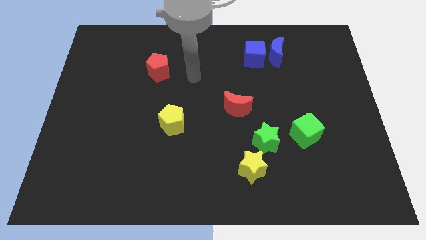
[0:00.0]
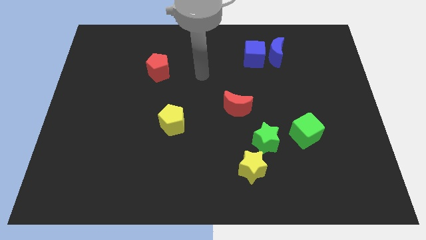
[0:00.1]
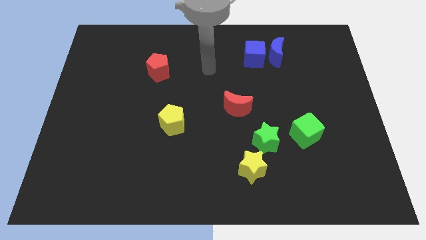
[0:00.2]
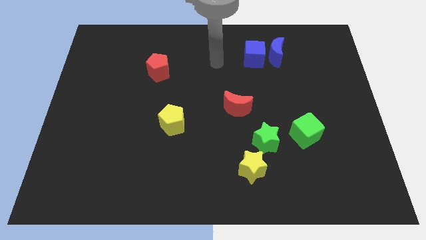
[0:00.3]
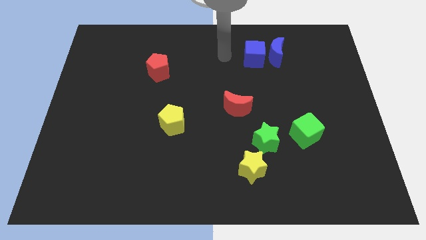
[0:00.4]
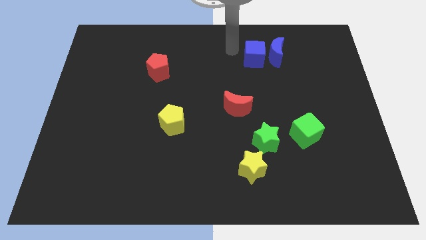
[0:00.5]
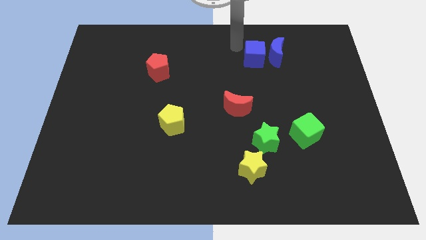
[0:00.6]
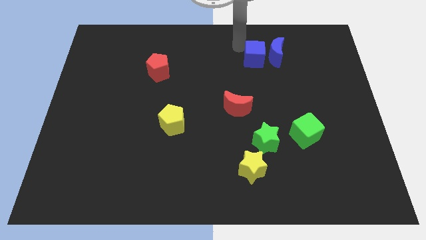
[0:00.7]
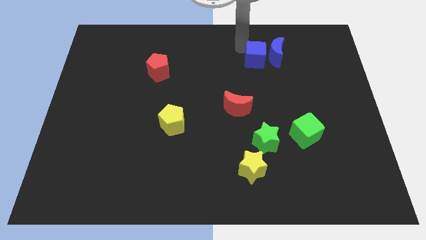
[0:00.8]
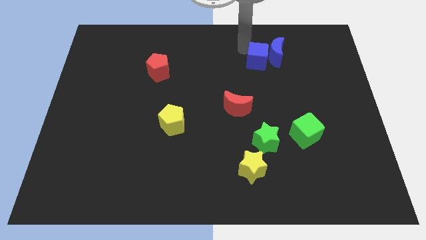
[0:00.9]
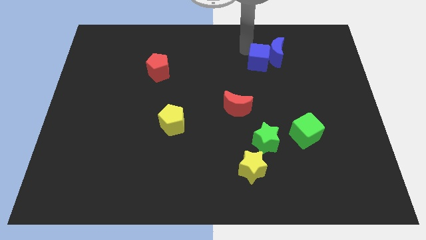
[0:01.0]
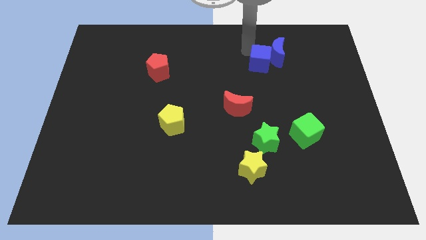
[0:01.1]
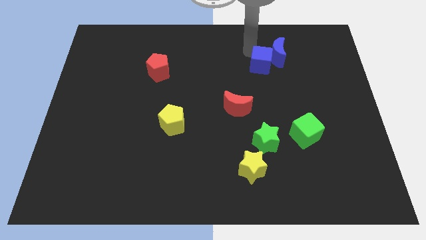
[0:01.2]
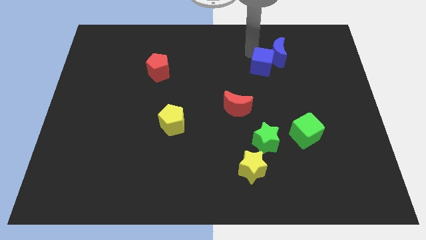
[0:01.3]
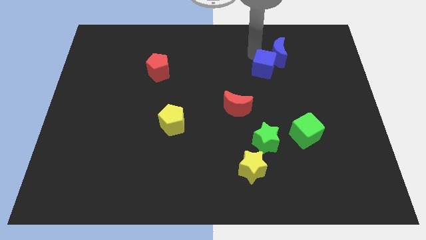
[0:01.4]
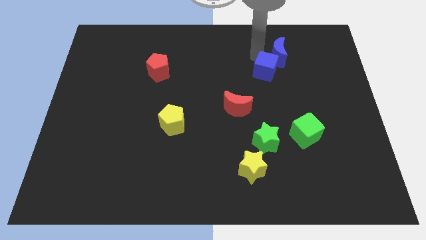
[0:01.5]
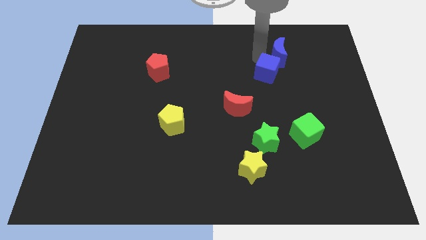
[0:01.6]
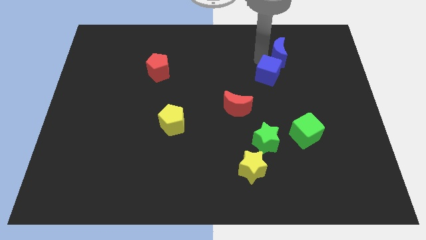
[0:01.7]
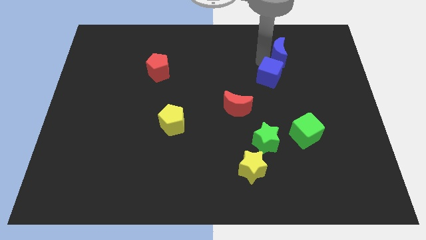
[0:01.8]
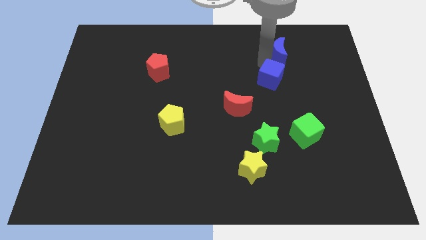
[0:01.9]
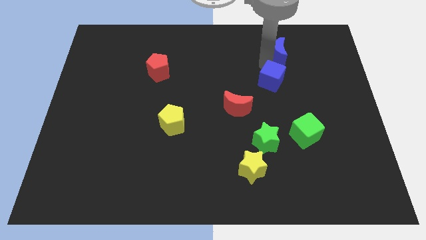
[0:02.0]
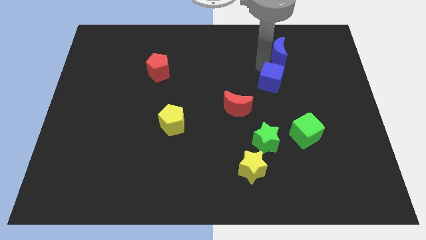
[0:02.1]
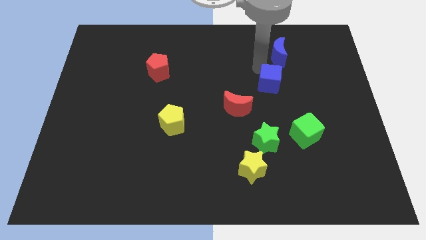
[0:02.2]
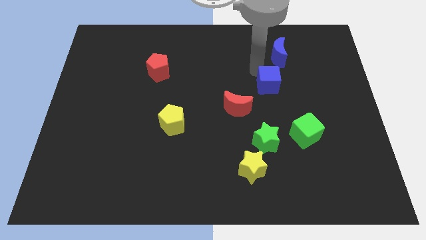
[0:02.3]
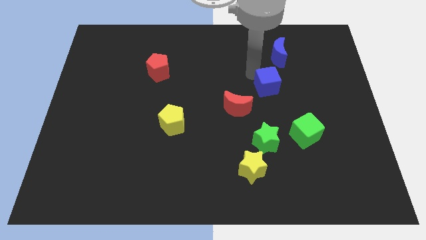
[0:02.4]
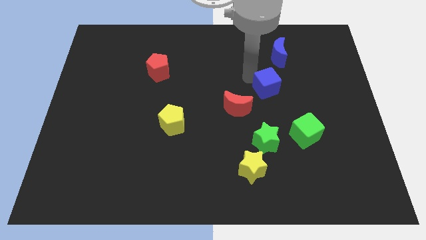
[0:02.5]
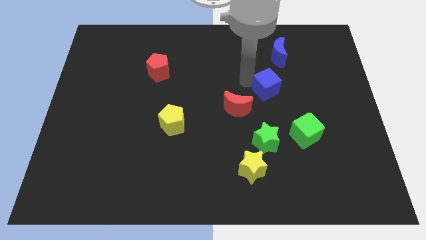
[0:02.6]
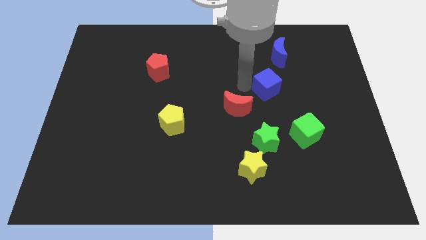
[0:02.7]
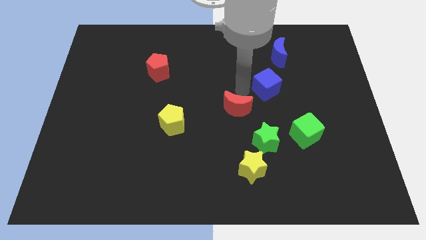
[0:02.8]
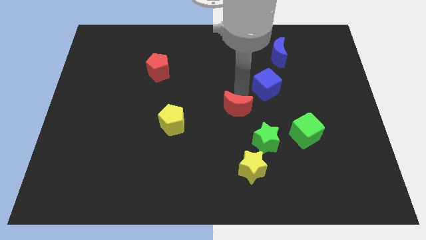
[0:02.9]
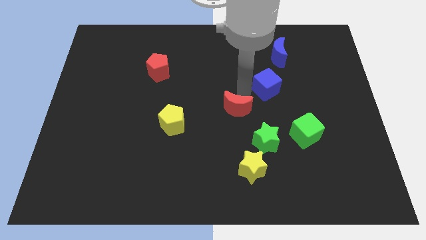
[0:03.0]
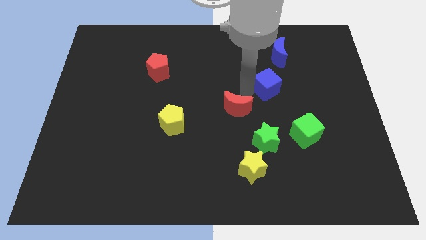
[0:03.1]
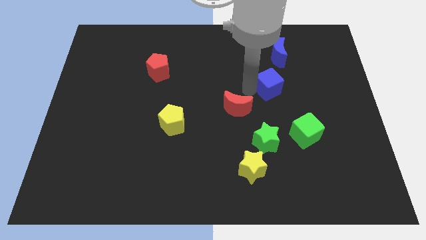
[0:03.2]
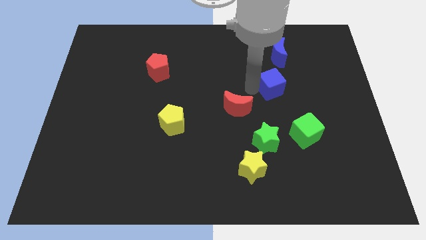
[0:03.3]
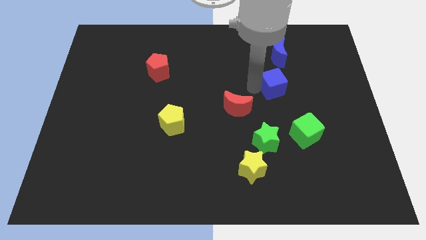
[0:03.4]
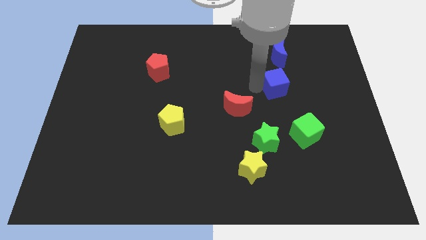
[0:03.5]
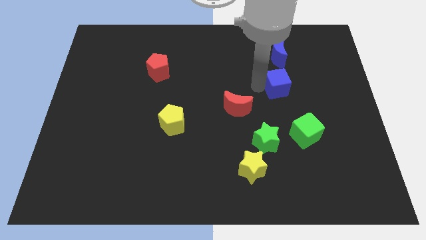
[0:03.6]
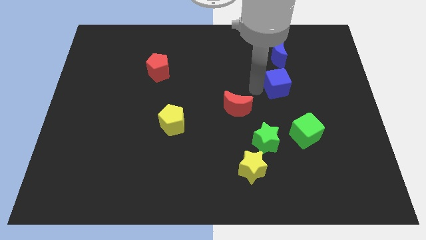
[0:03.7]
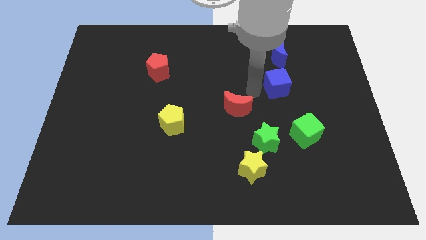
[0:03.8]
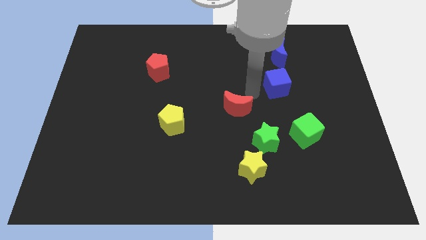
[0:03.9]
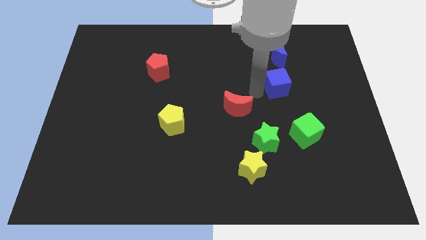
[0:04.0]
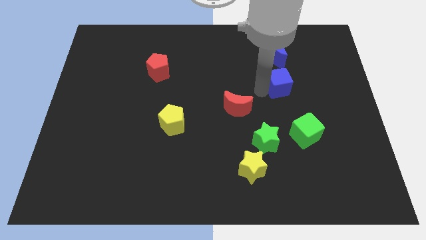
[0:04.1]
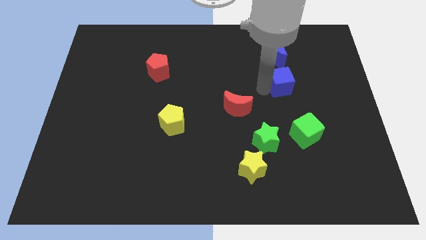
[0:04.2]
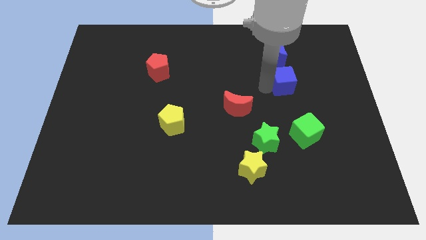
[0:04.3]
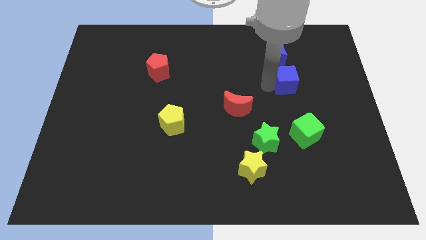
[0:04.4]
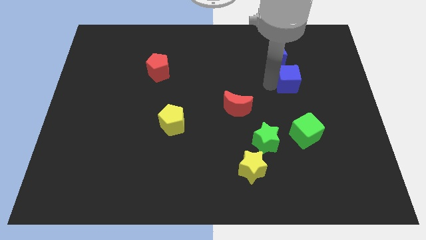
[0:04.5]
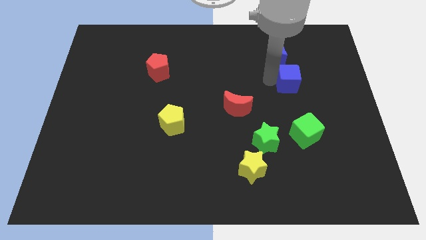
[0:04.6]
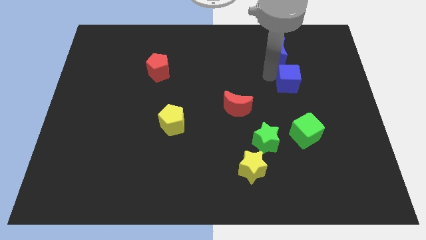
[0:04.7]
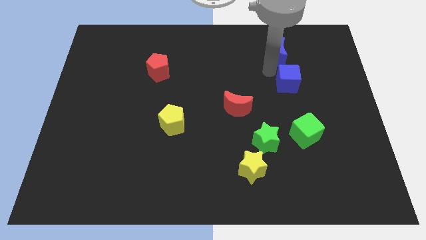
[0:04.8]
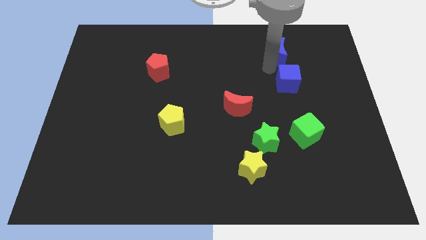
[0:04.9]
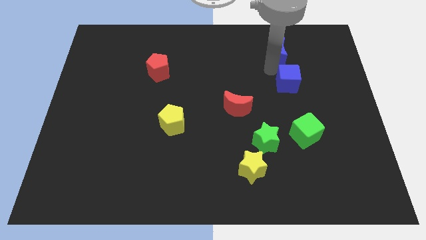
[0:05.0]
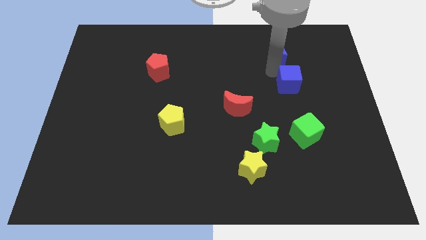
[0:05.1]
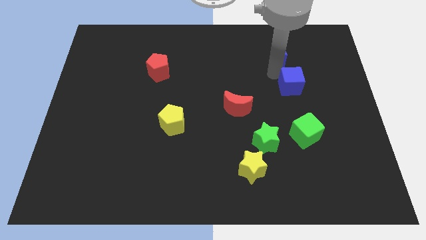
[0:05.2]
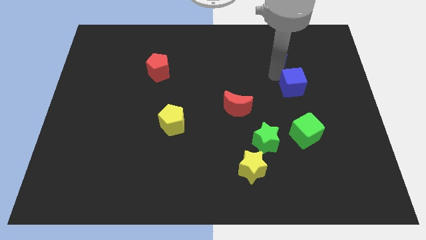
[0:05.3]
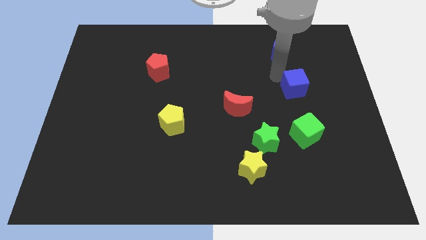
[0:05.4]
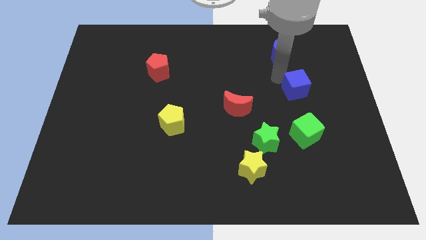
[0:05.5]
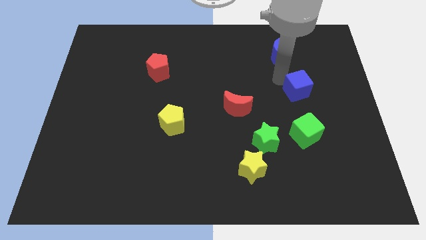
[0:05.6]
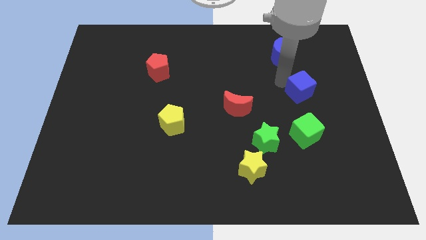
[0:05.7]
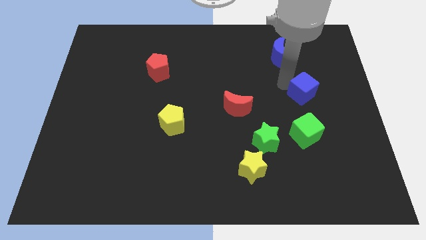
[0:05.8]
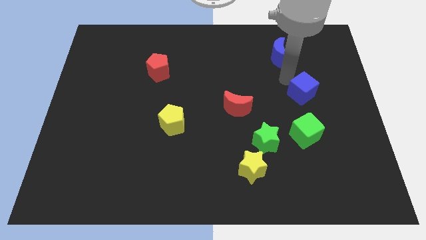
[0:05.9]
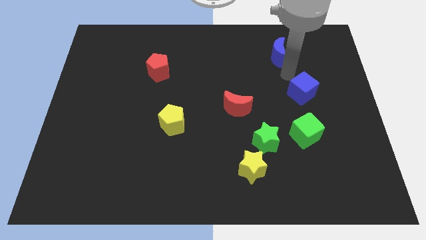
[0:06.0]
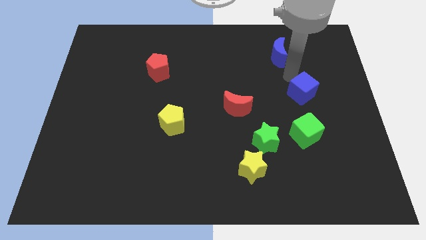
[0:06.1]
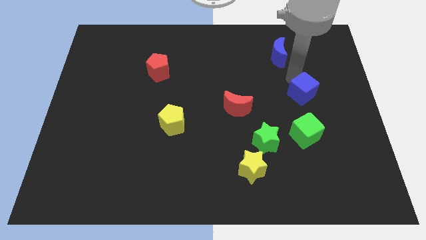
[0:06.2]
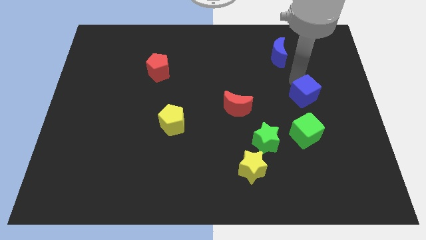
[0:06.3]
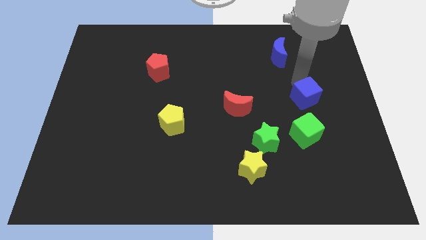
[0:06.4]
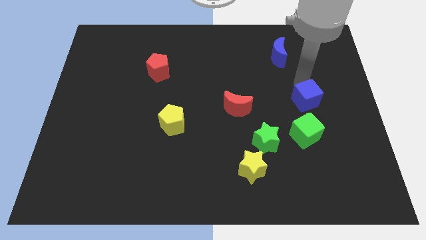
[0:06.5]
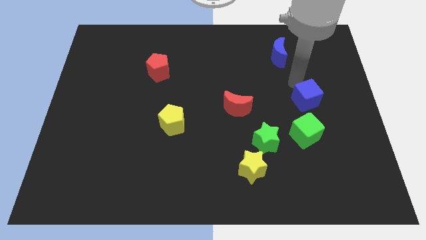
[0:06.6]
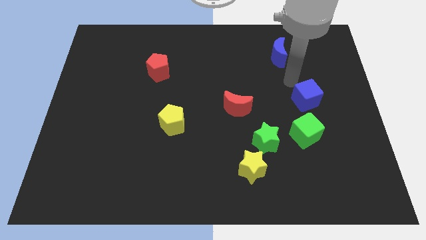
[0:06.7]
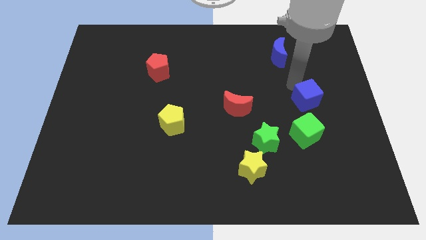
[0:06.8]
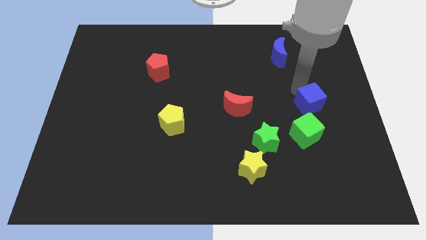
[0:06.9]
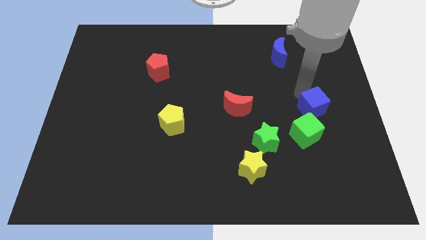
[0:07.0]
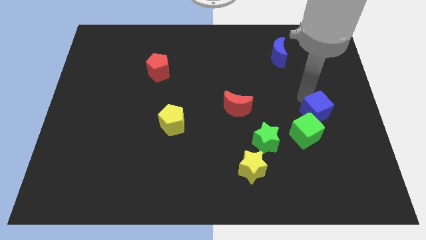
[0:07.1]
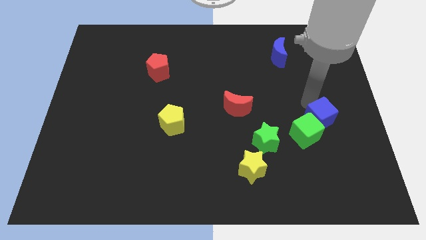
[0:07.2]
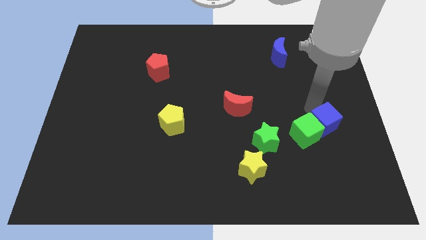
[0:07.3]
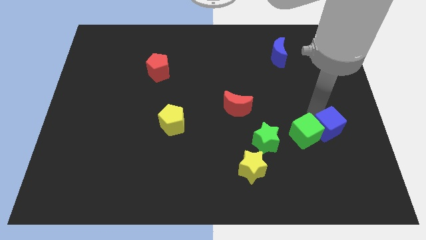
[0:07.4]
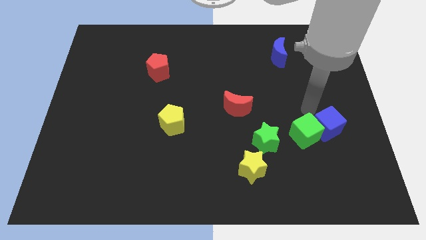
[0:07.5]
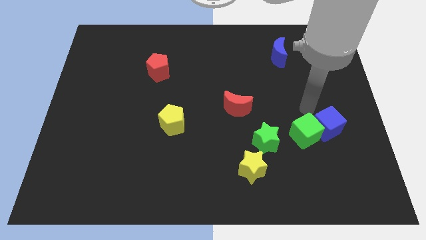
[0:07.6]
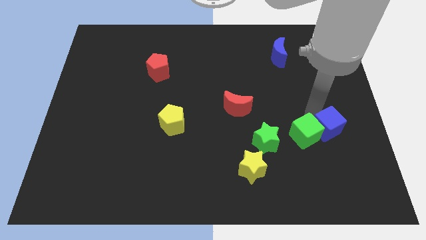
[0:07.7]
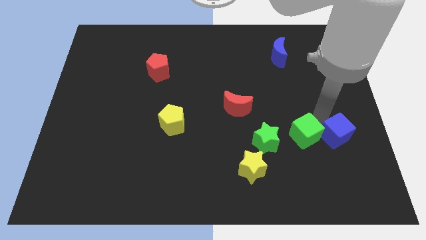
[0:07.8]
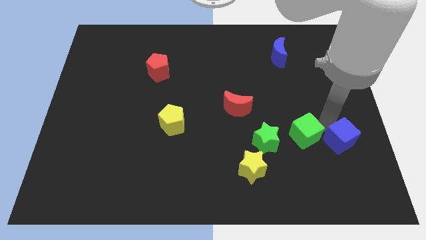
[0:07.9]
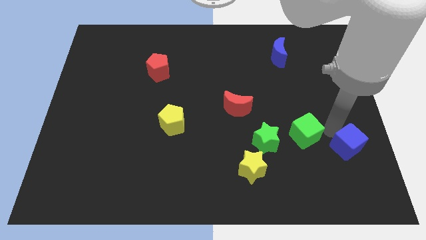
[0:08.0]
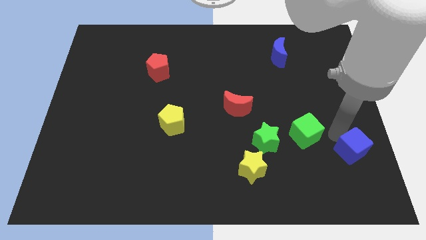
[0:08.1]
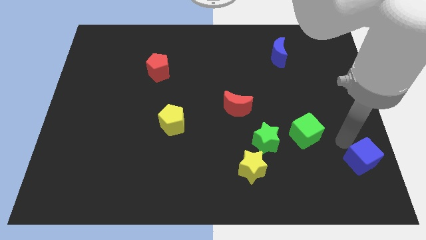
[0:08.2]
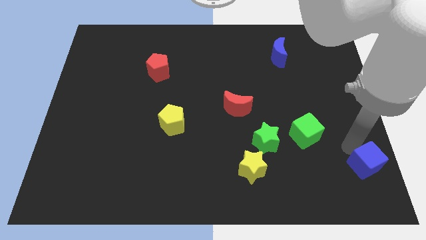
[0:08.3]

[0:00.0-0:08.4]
put the blue cube to the lower right corner
